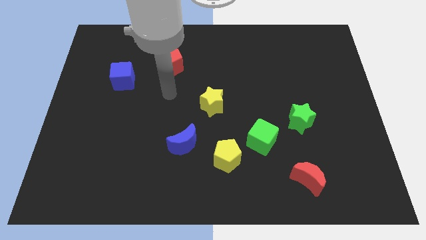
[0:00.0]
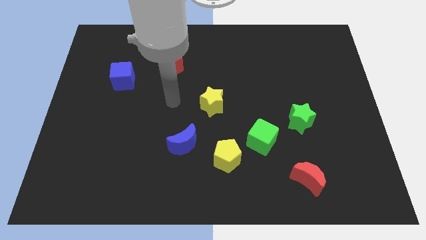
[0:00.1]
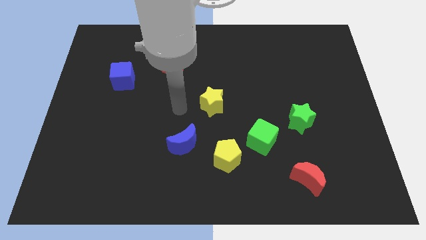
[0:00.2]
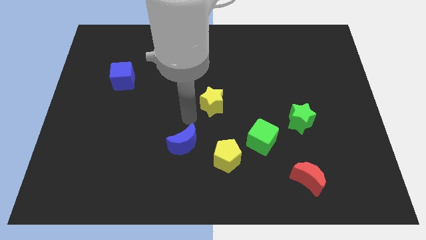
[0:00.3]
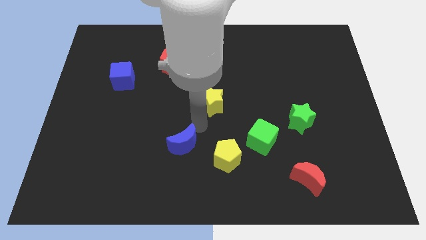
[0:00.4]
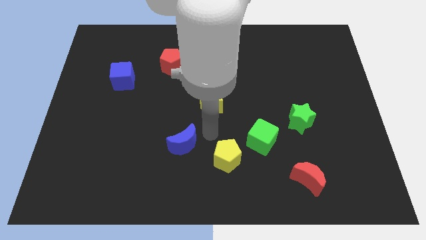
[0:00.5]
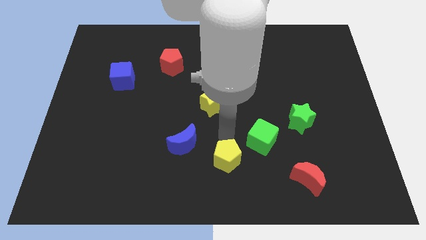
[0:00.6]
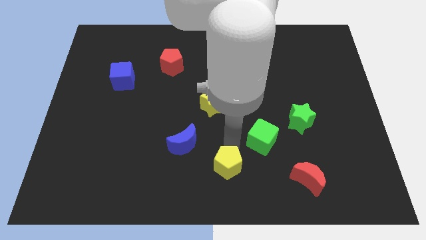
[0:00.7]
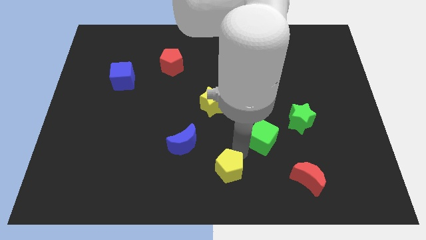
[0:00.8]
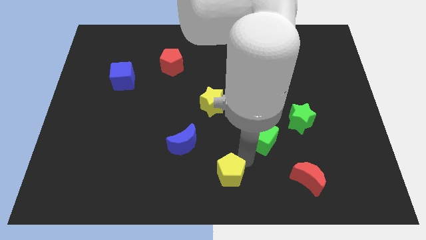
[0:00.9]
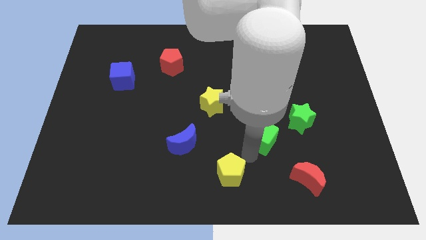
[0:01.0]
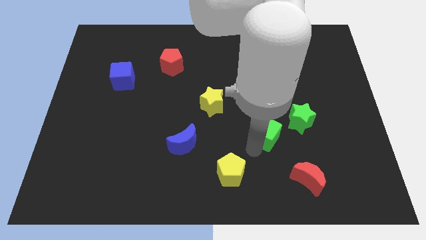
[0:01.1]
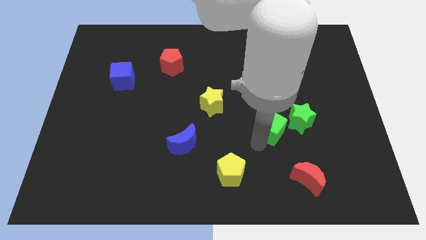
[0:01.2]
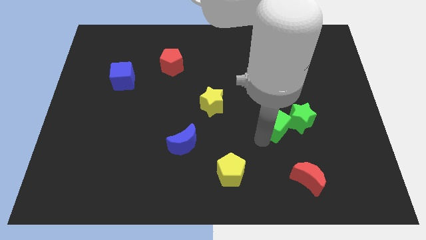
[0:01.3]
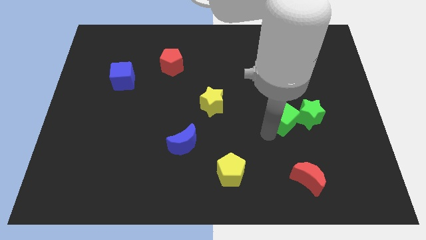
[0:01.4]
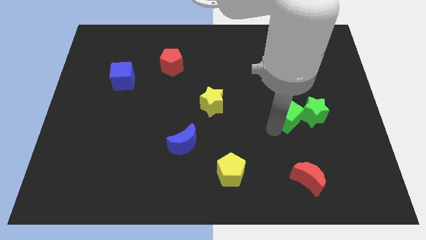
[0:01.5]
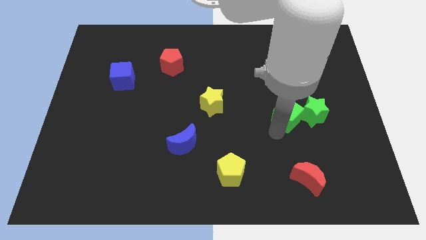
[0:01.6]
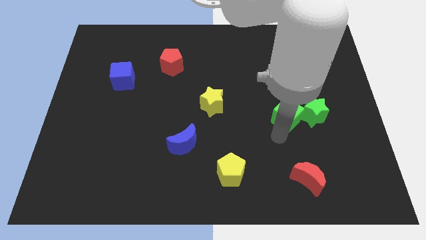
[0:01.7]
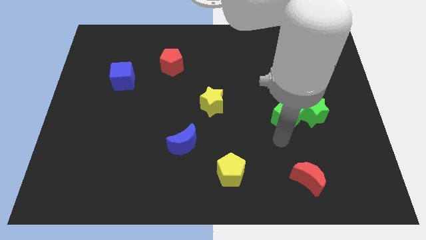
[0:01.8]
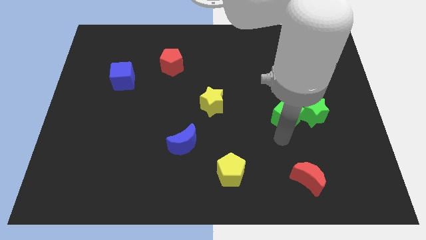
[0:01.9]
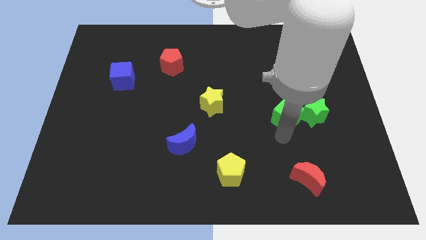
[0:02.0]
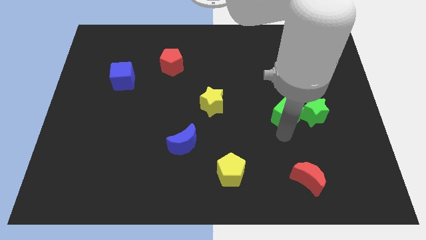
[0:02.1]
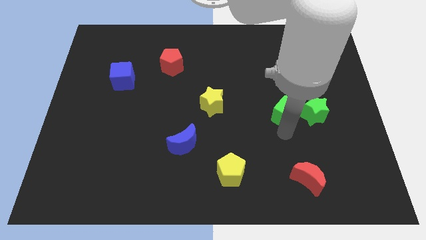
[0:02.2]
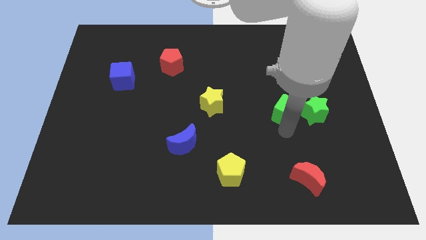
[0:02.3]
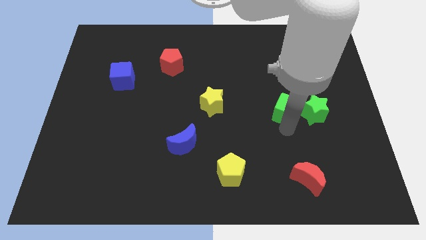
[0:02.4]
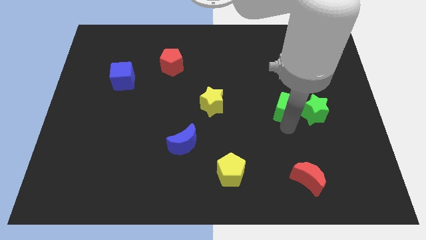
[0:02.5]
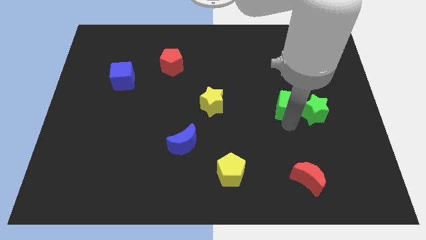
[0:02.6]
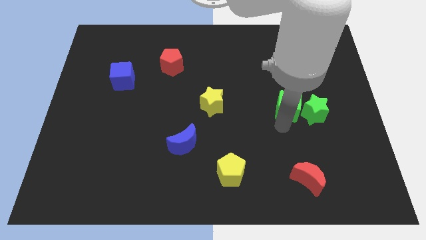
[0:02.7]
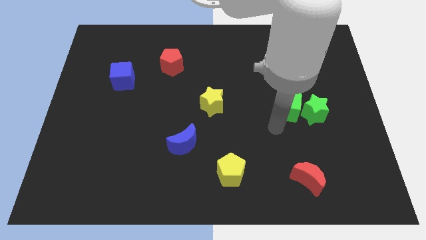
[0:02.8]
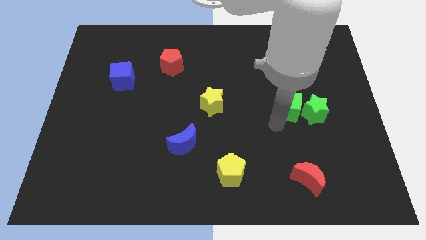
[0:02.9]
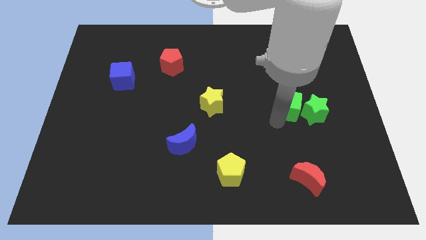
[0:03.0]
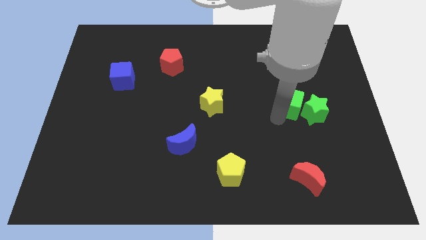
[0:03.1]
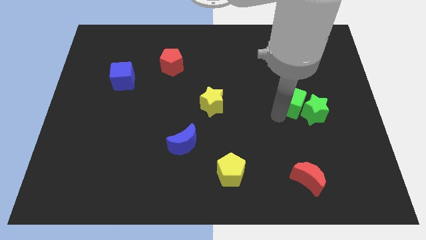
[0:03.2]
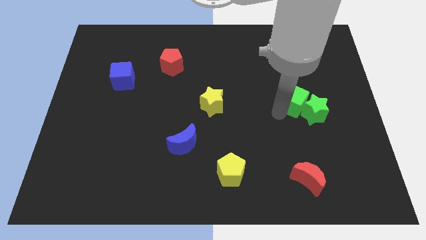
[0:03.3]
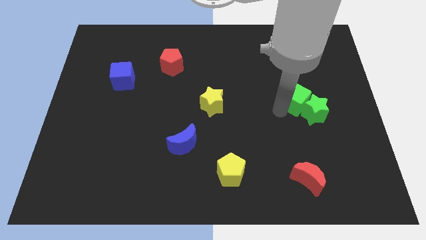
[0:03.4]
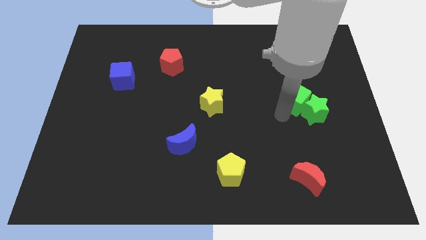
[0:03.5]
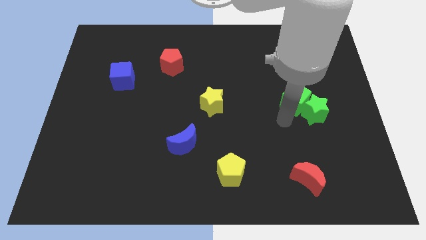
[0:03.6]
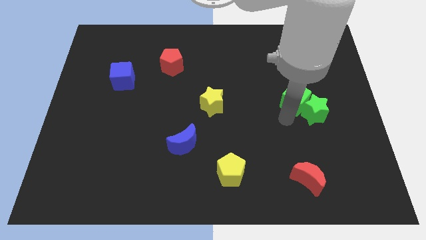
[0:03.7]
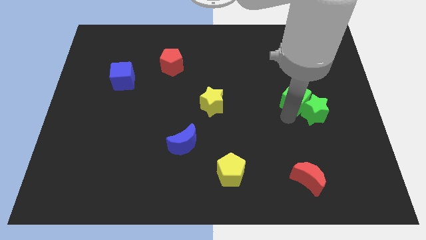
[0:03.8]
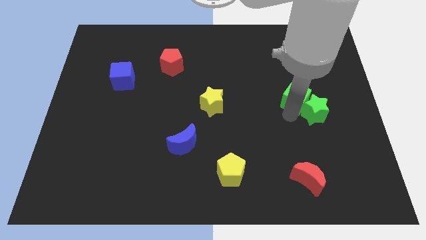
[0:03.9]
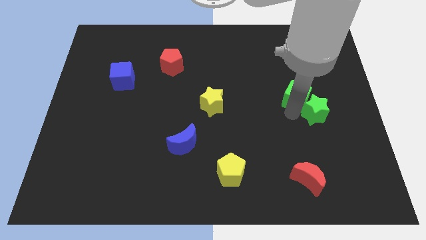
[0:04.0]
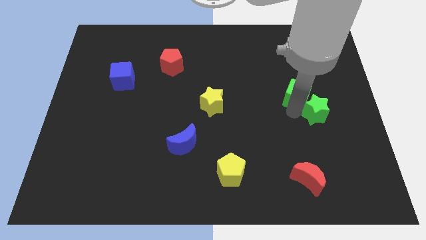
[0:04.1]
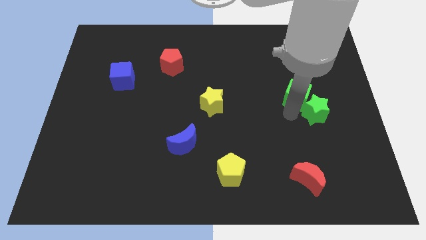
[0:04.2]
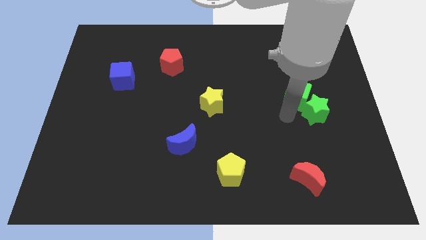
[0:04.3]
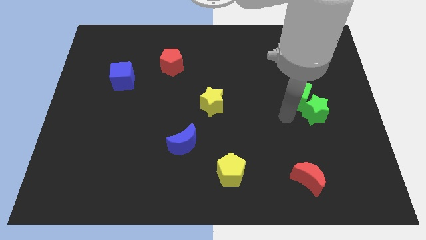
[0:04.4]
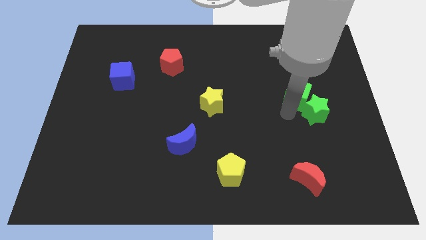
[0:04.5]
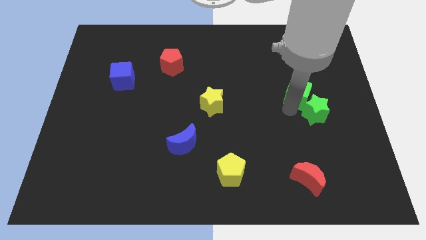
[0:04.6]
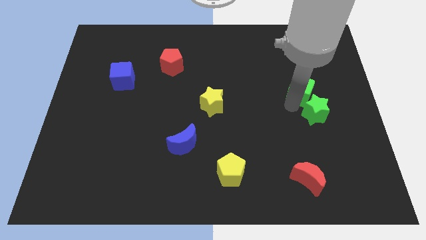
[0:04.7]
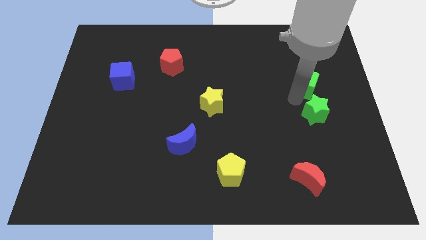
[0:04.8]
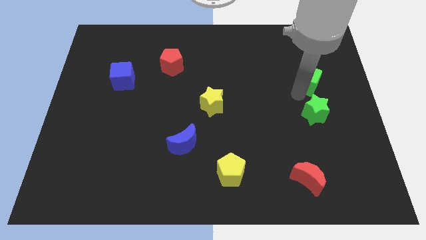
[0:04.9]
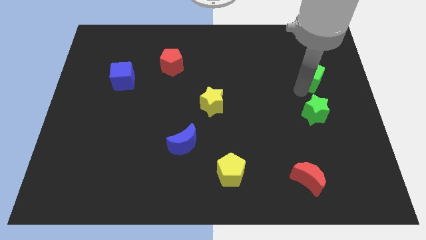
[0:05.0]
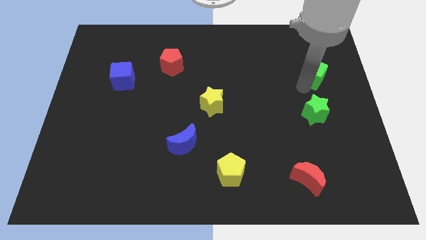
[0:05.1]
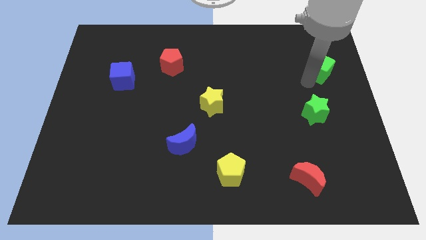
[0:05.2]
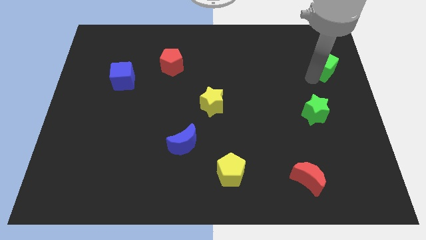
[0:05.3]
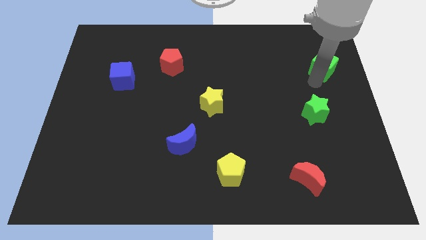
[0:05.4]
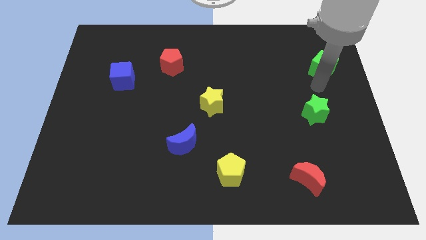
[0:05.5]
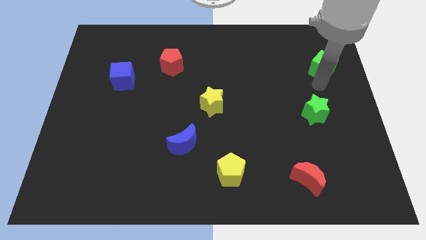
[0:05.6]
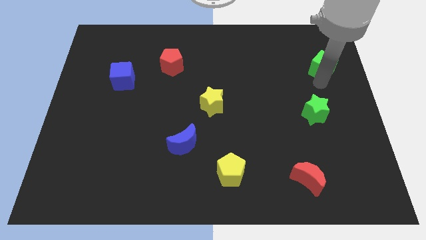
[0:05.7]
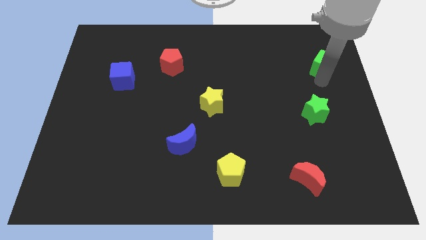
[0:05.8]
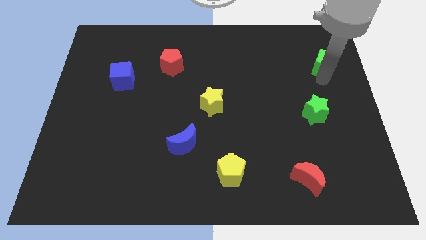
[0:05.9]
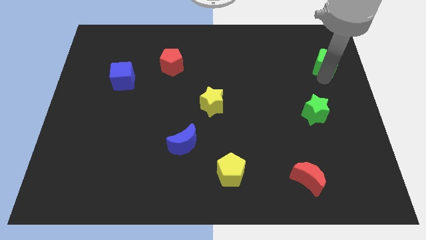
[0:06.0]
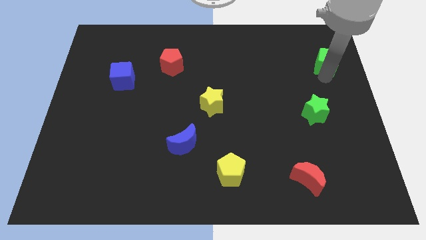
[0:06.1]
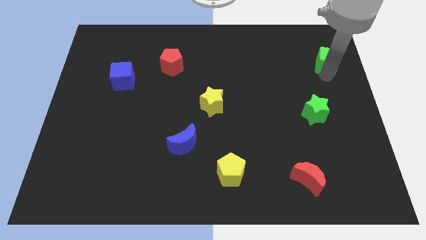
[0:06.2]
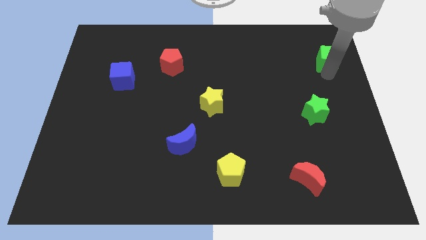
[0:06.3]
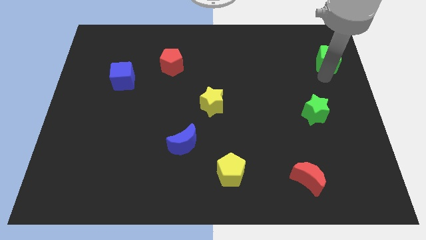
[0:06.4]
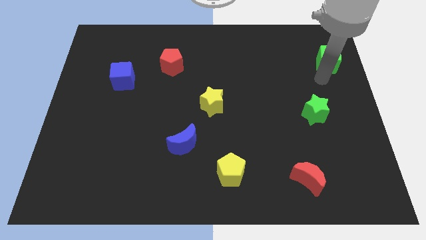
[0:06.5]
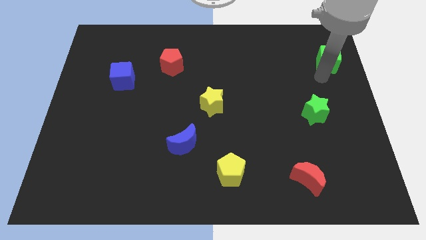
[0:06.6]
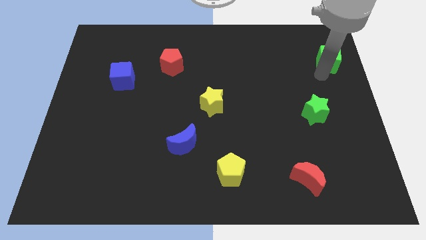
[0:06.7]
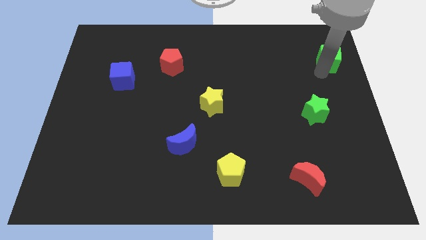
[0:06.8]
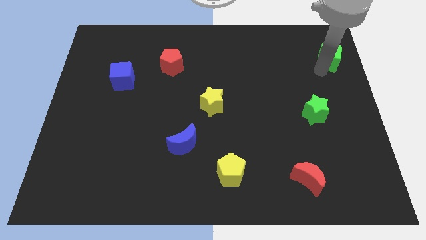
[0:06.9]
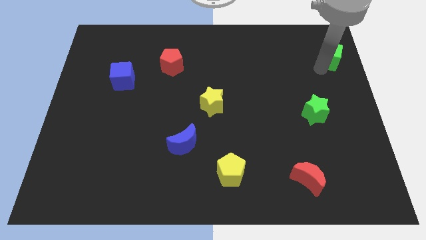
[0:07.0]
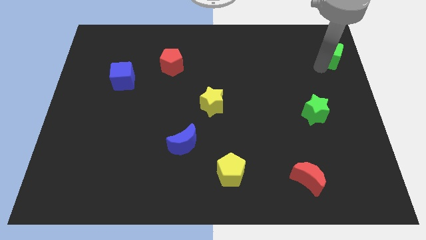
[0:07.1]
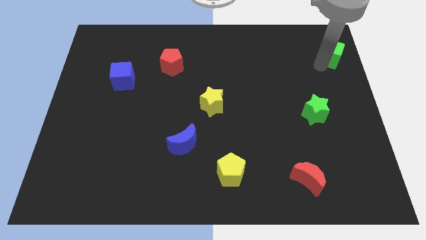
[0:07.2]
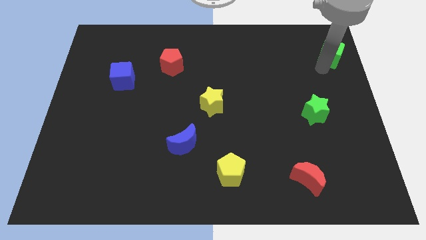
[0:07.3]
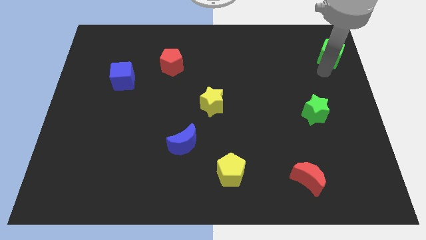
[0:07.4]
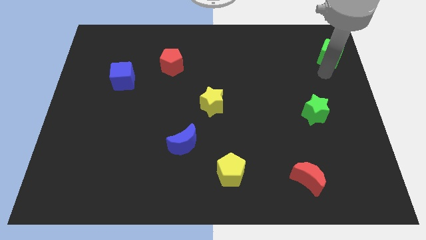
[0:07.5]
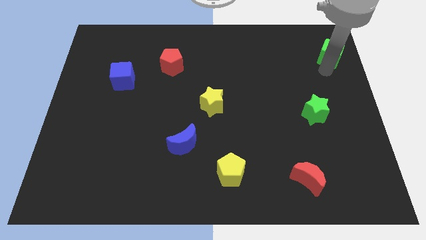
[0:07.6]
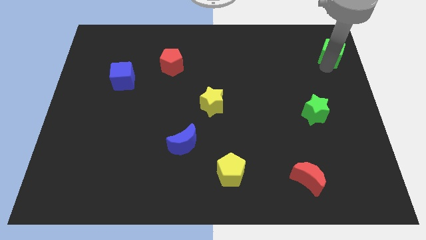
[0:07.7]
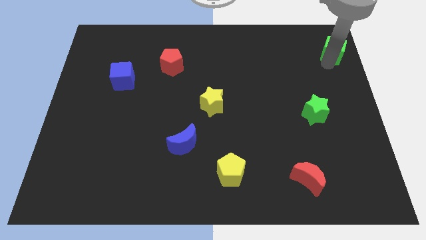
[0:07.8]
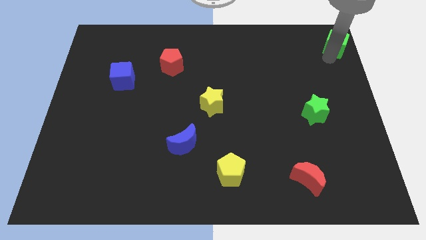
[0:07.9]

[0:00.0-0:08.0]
put the green cube to the upper right corner
